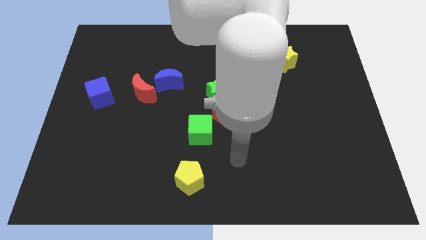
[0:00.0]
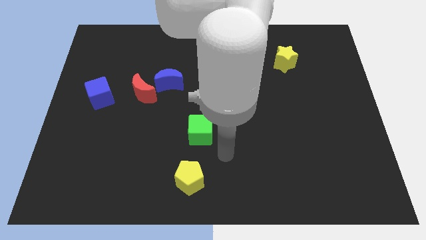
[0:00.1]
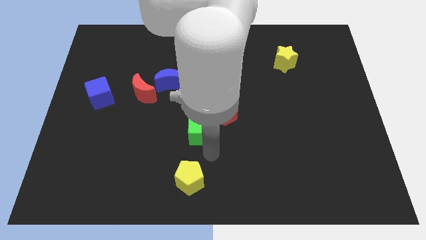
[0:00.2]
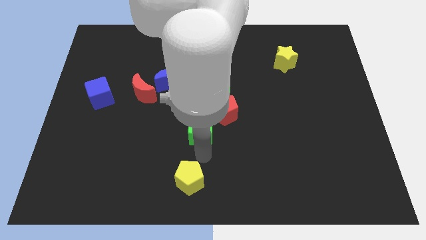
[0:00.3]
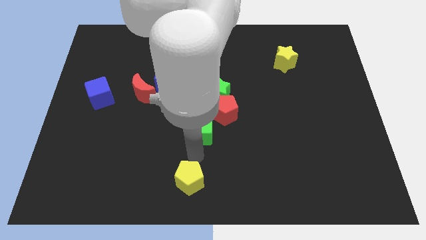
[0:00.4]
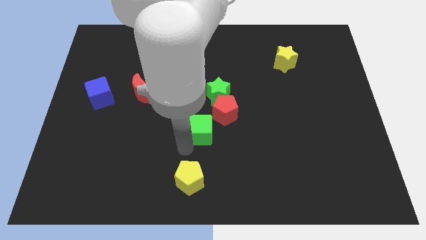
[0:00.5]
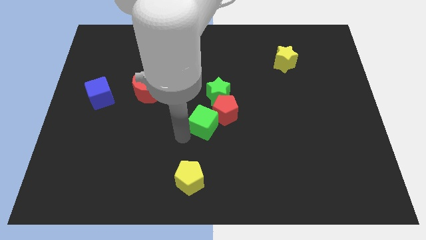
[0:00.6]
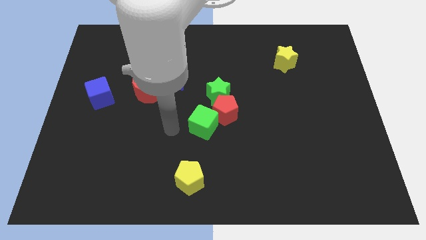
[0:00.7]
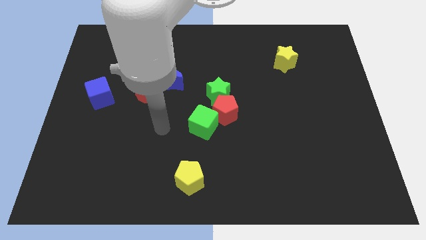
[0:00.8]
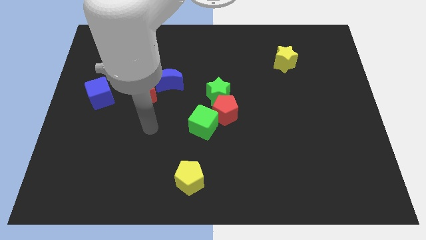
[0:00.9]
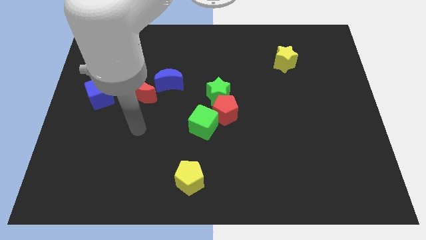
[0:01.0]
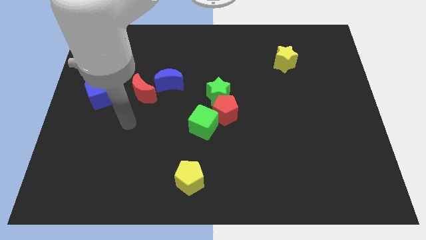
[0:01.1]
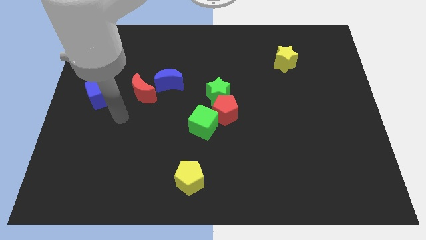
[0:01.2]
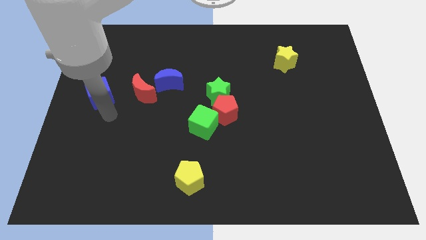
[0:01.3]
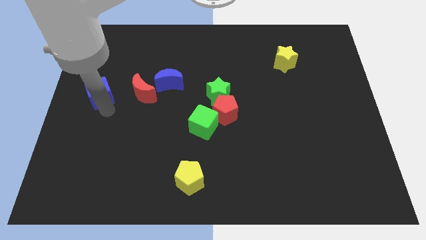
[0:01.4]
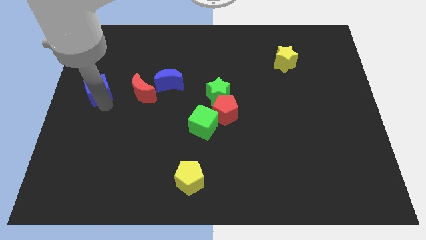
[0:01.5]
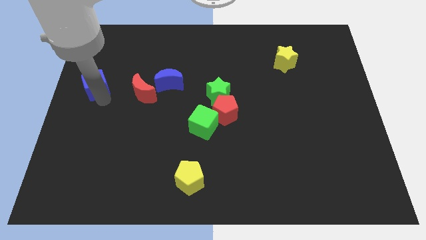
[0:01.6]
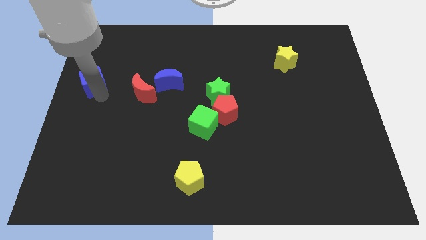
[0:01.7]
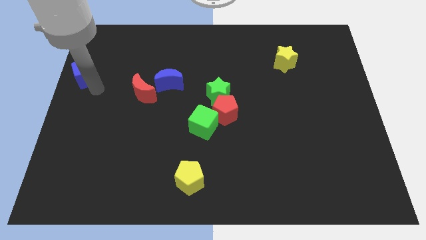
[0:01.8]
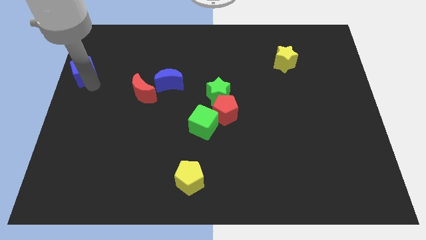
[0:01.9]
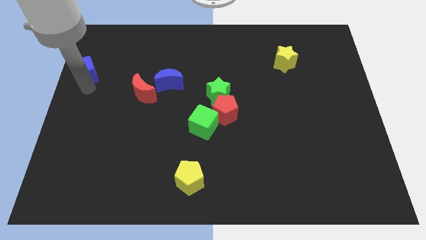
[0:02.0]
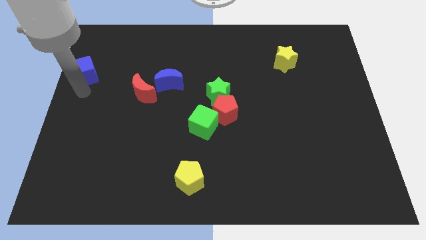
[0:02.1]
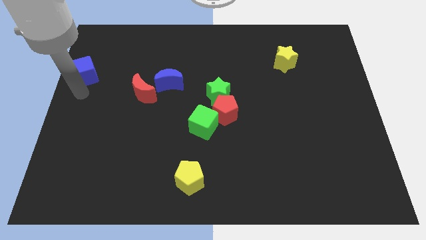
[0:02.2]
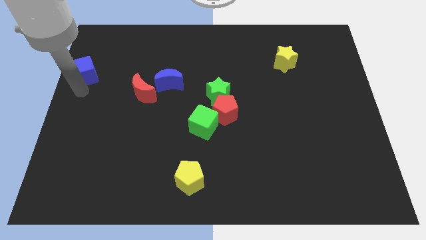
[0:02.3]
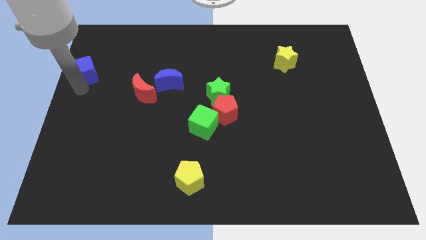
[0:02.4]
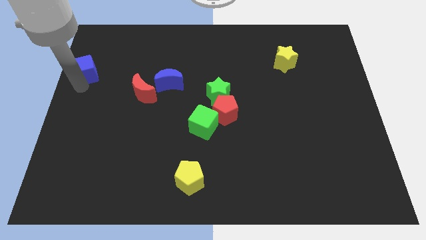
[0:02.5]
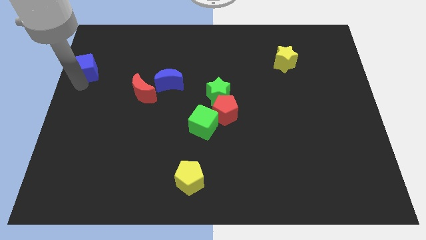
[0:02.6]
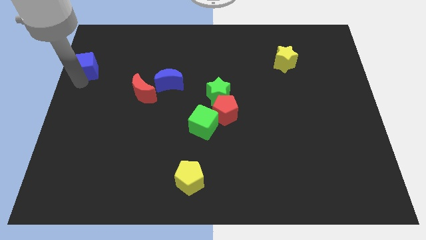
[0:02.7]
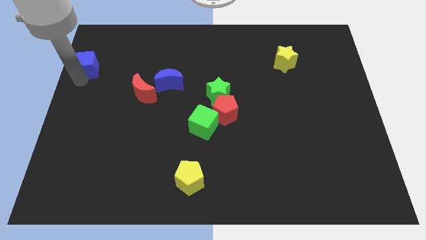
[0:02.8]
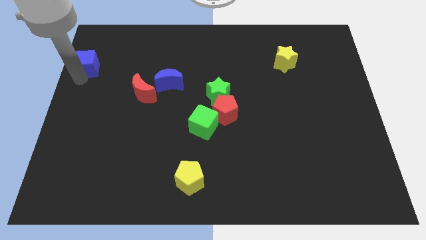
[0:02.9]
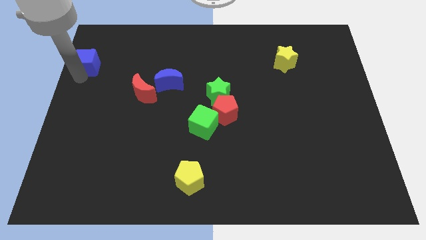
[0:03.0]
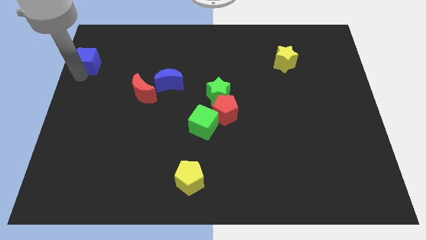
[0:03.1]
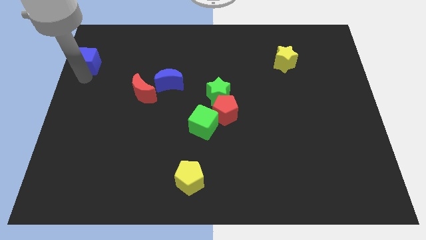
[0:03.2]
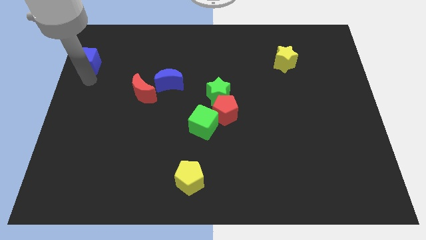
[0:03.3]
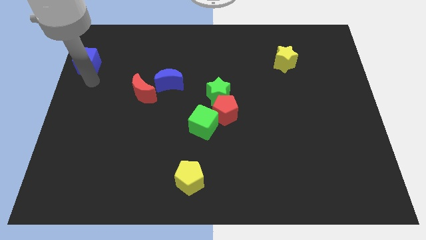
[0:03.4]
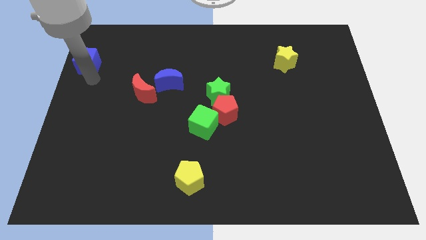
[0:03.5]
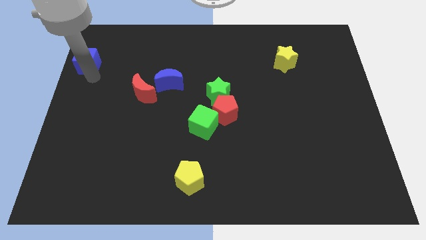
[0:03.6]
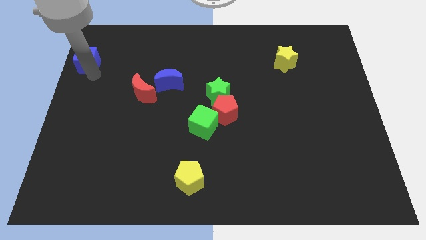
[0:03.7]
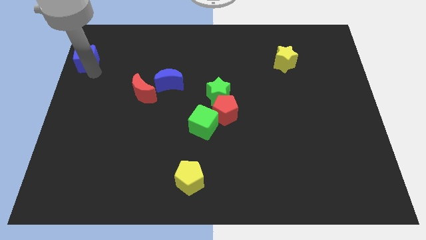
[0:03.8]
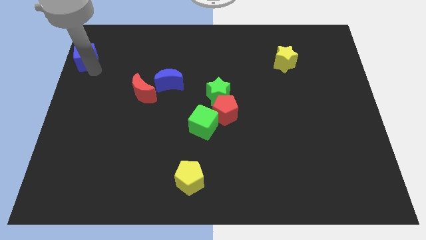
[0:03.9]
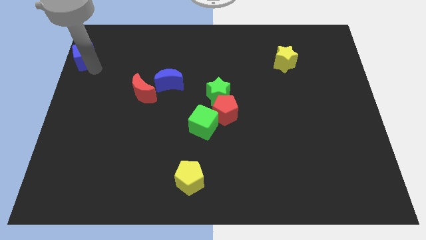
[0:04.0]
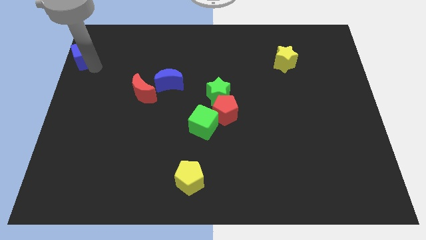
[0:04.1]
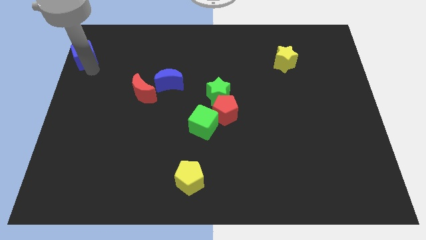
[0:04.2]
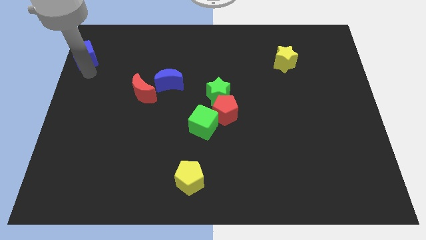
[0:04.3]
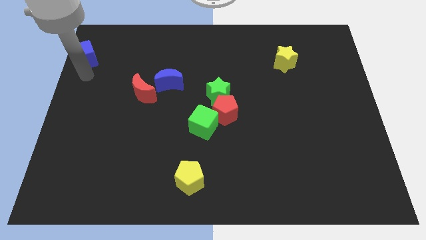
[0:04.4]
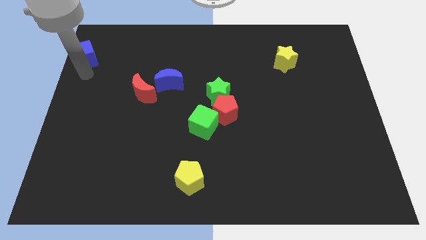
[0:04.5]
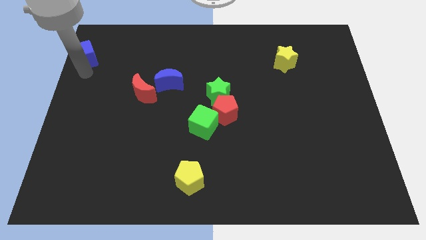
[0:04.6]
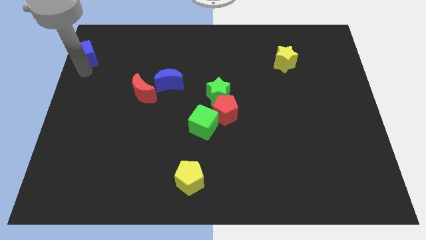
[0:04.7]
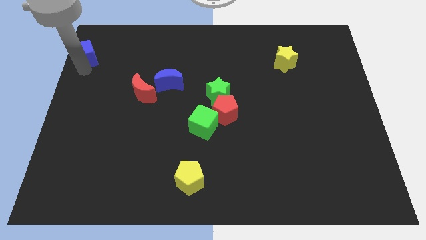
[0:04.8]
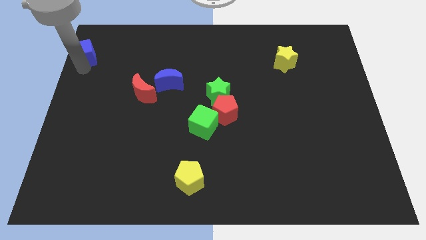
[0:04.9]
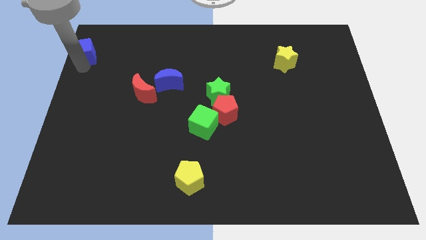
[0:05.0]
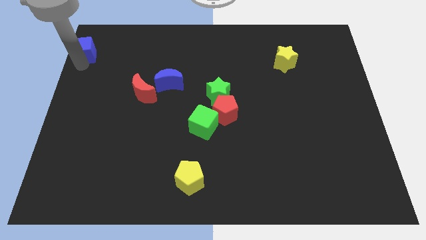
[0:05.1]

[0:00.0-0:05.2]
slide the blue cube to the upper left corner

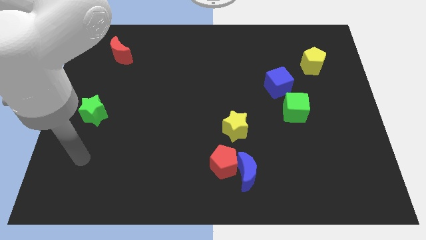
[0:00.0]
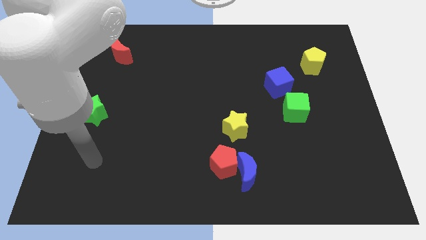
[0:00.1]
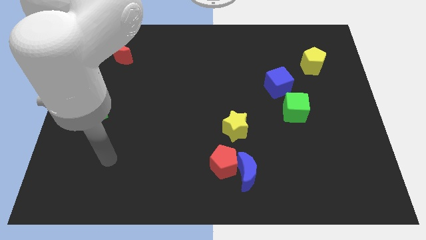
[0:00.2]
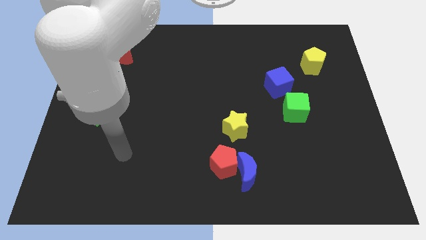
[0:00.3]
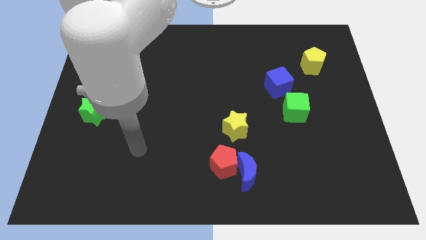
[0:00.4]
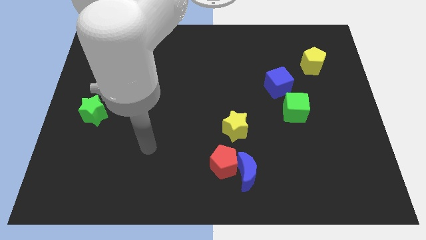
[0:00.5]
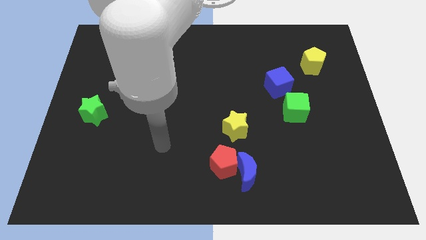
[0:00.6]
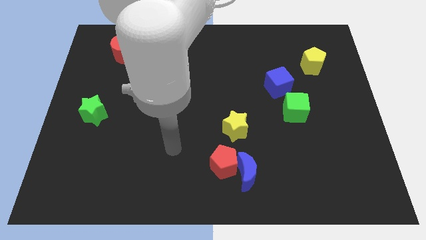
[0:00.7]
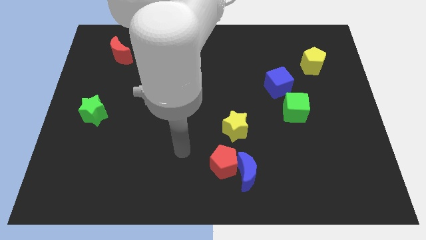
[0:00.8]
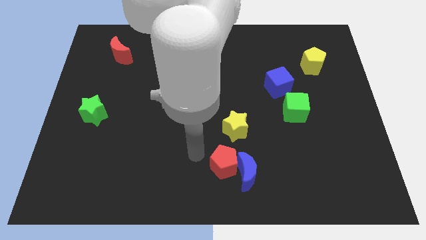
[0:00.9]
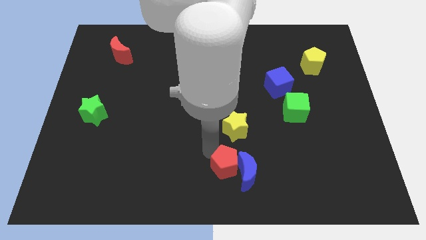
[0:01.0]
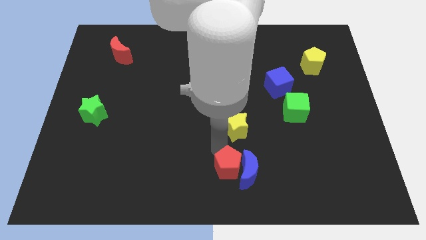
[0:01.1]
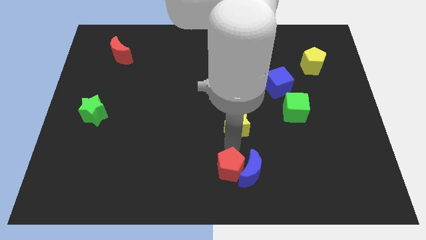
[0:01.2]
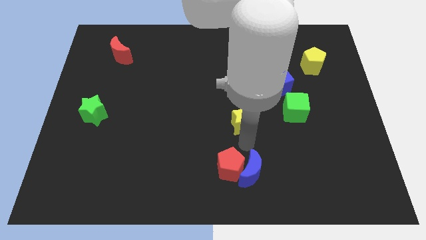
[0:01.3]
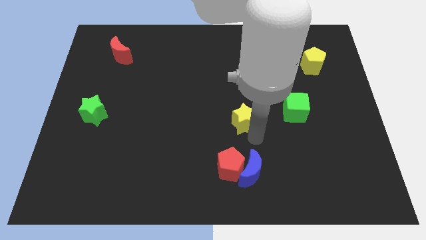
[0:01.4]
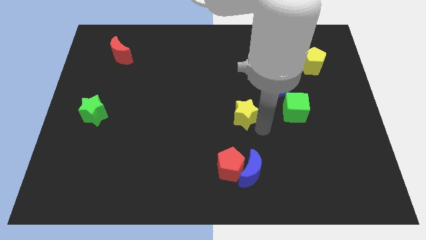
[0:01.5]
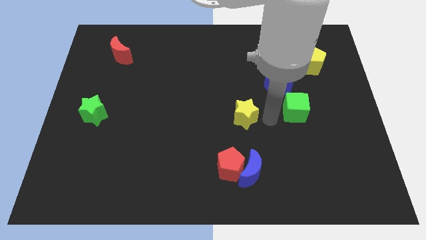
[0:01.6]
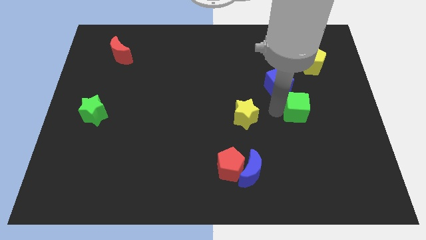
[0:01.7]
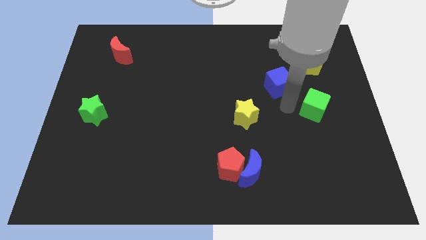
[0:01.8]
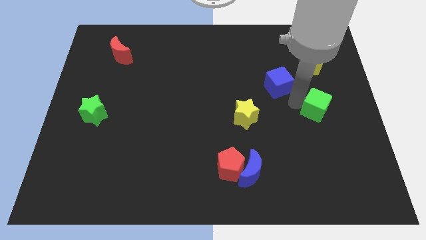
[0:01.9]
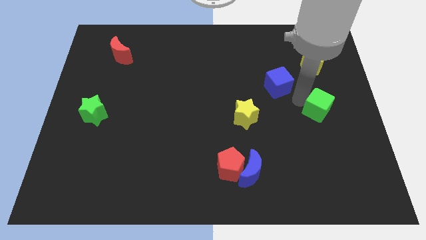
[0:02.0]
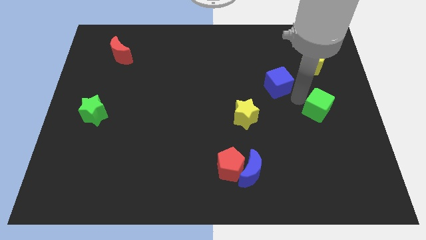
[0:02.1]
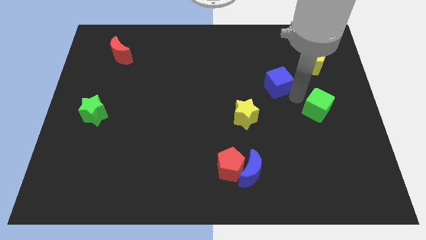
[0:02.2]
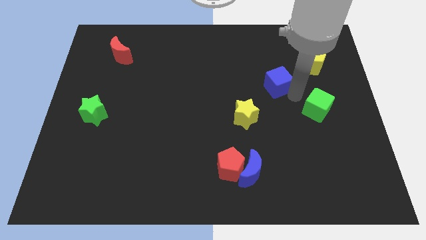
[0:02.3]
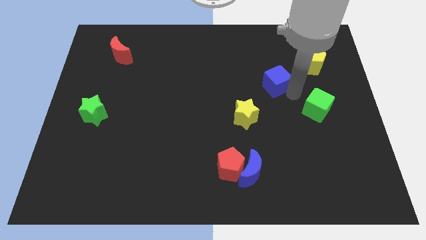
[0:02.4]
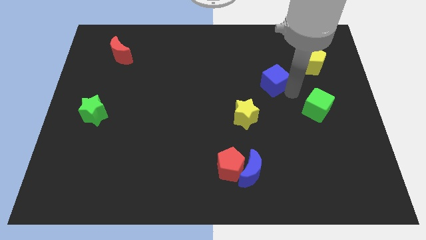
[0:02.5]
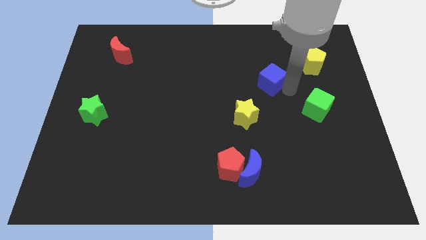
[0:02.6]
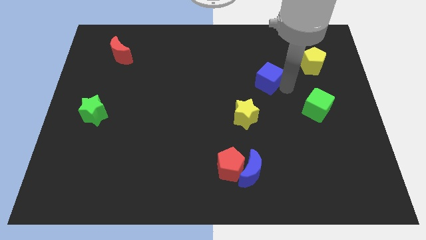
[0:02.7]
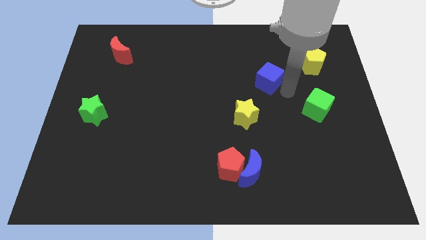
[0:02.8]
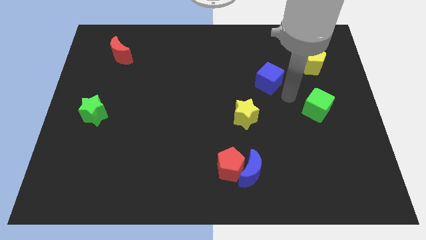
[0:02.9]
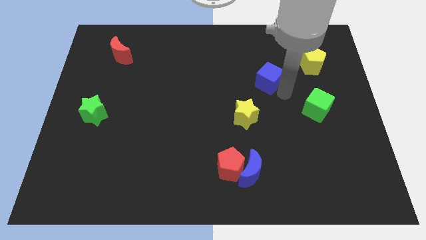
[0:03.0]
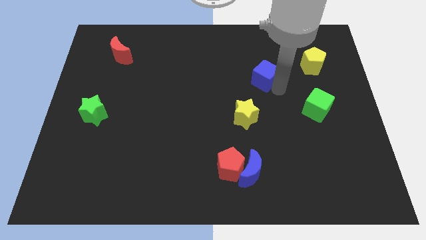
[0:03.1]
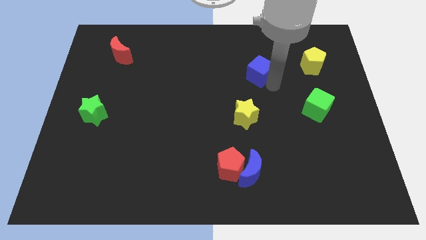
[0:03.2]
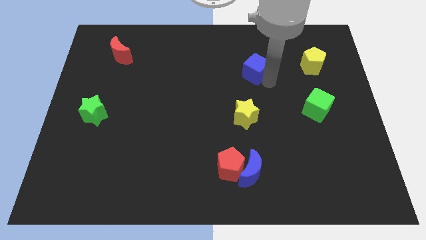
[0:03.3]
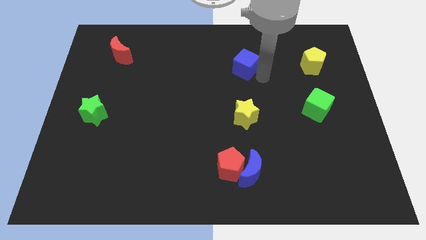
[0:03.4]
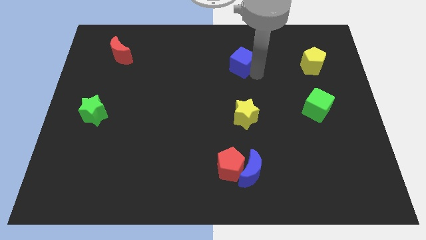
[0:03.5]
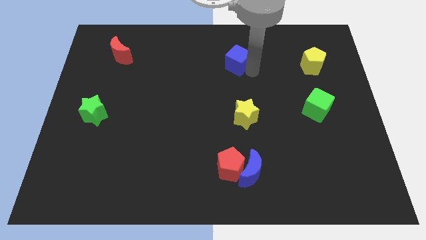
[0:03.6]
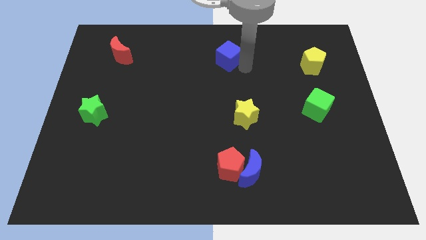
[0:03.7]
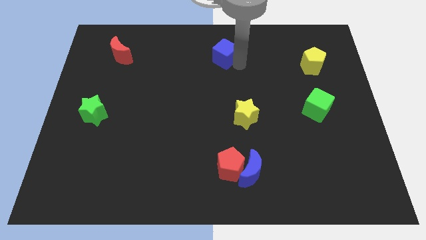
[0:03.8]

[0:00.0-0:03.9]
push the blue cube to the top
